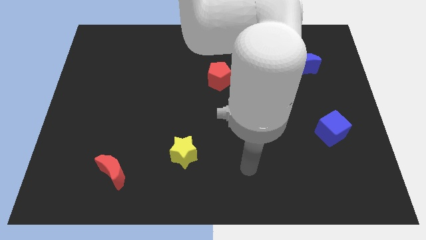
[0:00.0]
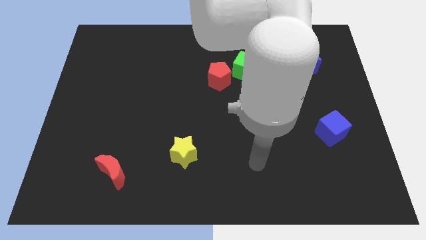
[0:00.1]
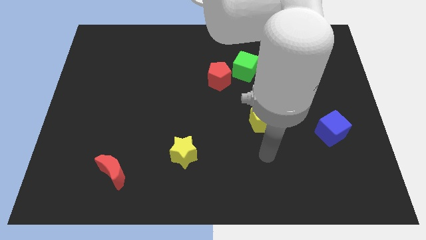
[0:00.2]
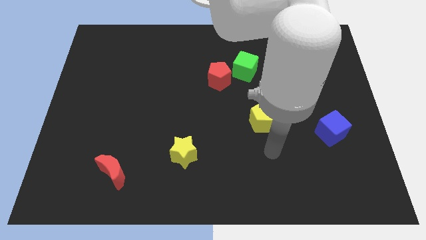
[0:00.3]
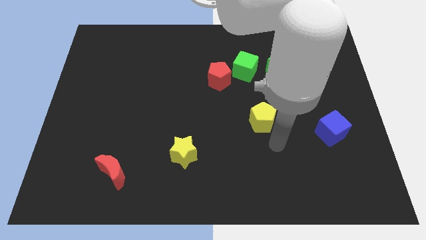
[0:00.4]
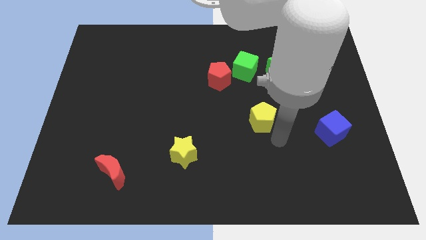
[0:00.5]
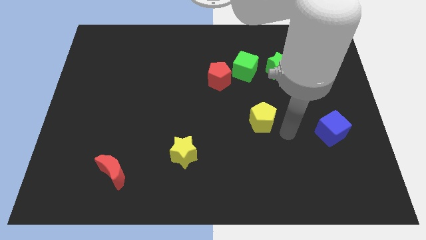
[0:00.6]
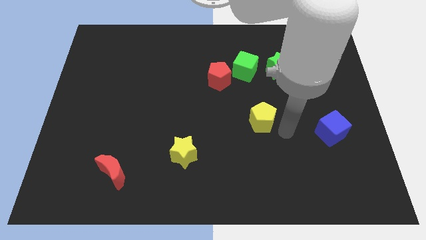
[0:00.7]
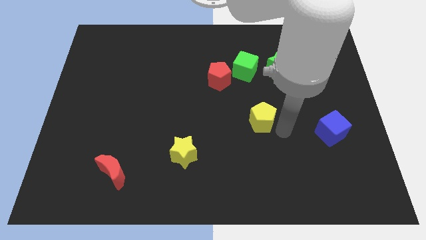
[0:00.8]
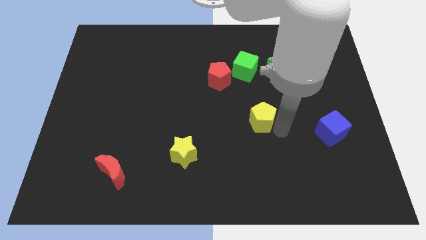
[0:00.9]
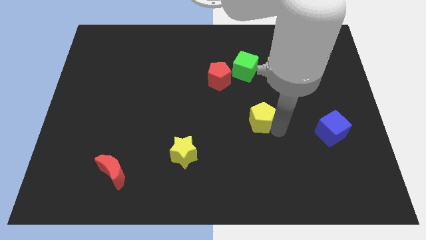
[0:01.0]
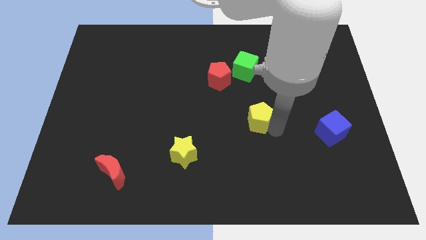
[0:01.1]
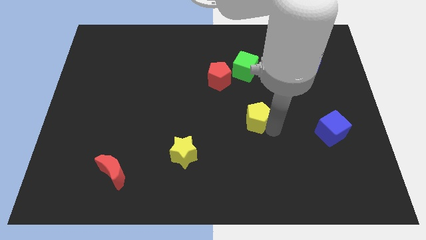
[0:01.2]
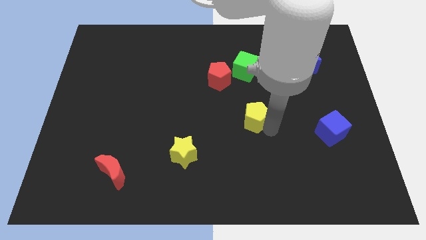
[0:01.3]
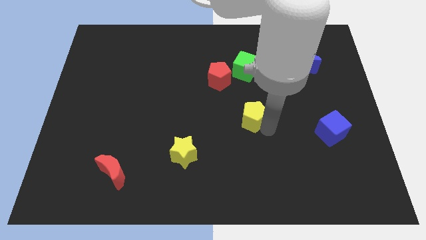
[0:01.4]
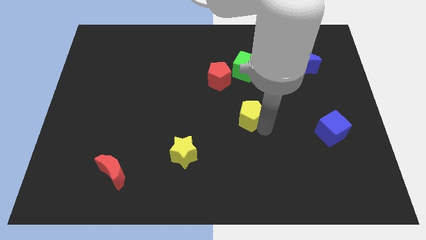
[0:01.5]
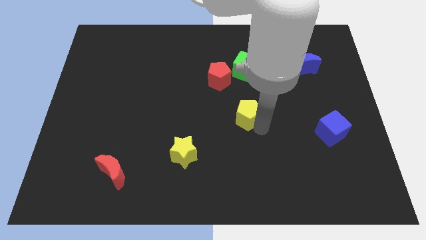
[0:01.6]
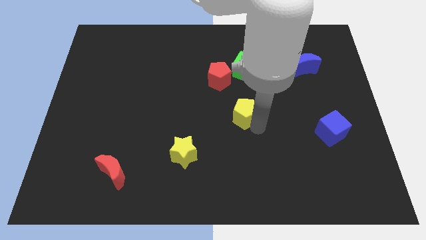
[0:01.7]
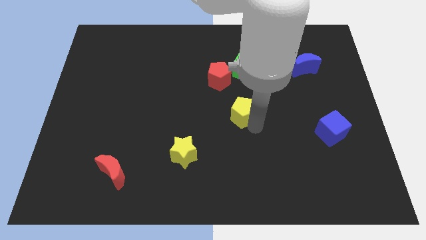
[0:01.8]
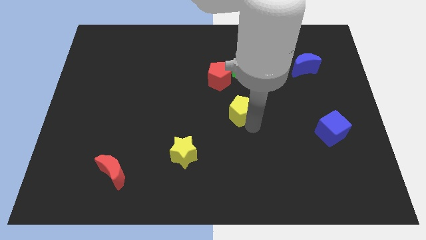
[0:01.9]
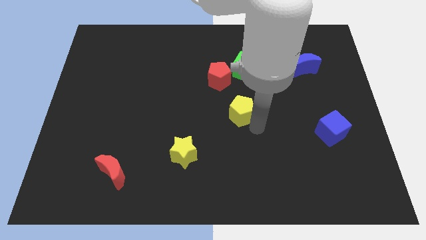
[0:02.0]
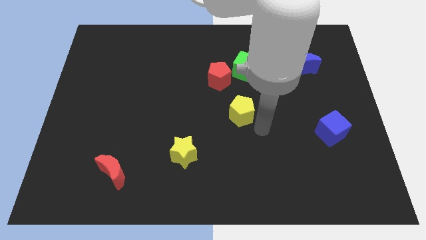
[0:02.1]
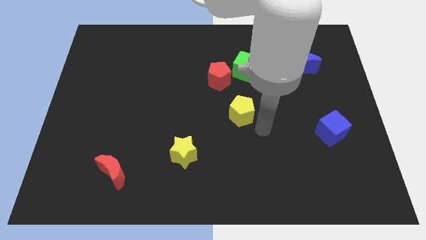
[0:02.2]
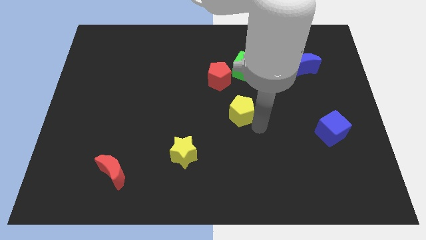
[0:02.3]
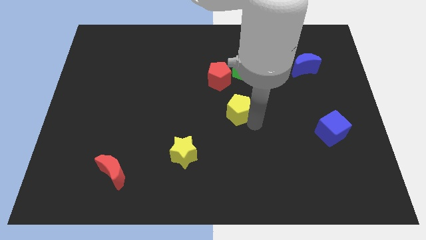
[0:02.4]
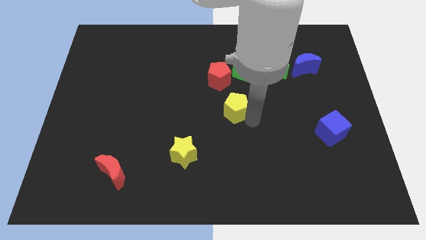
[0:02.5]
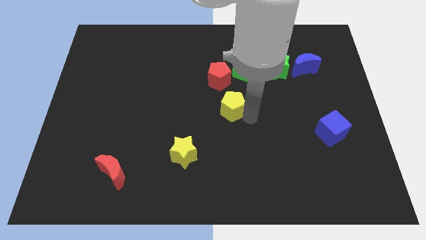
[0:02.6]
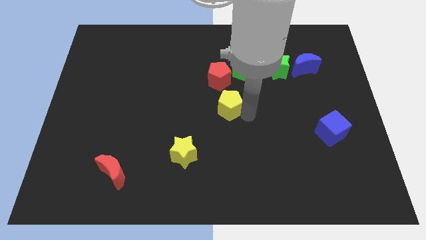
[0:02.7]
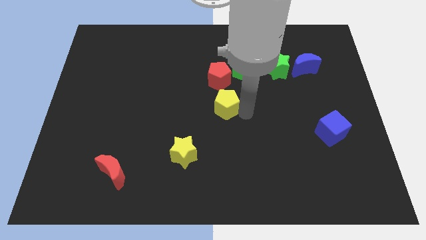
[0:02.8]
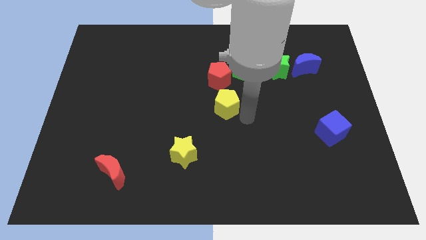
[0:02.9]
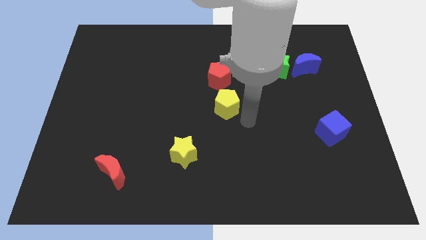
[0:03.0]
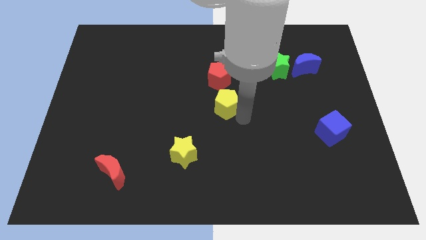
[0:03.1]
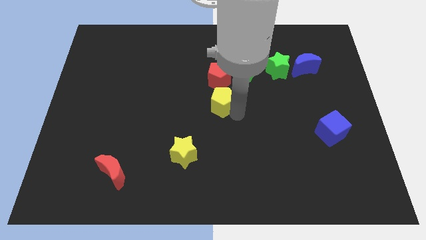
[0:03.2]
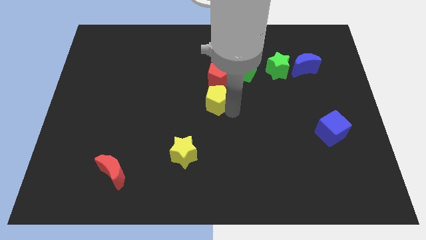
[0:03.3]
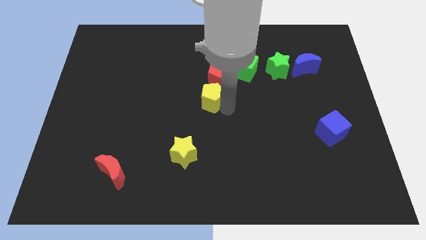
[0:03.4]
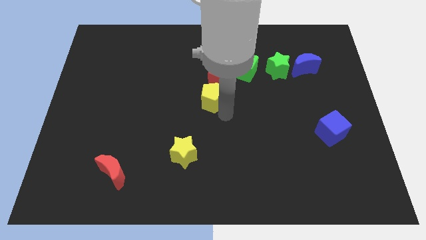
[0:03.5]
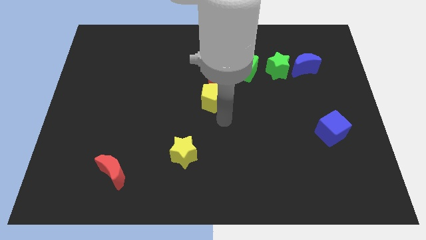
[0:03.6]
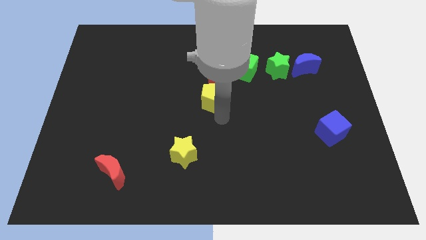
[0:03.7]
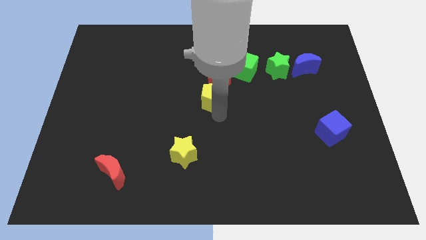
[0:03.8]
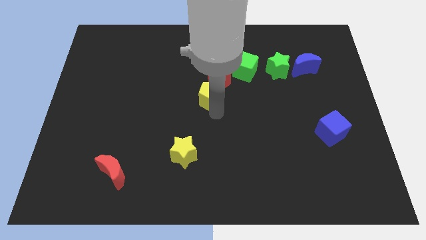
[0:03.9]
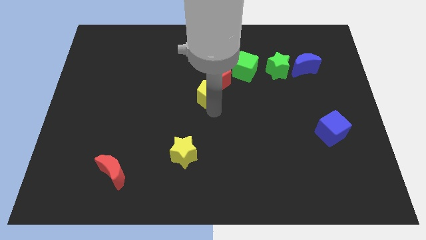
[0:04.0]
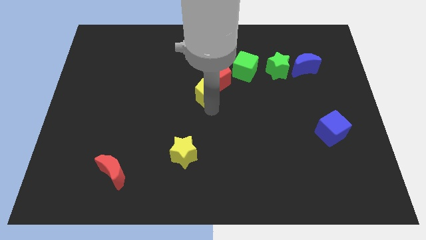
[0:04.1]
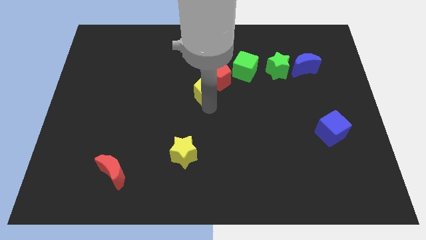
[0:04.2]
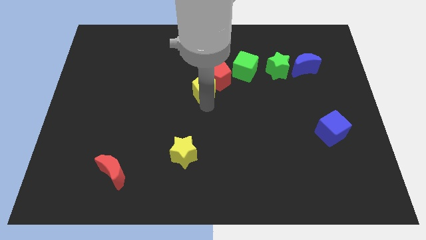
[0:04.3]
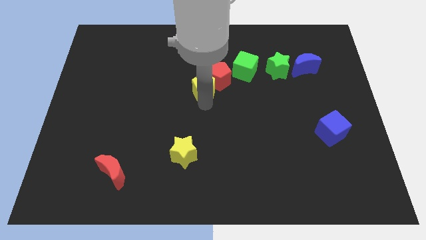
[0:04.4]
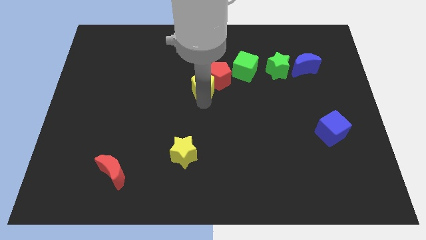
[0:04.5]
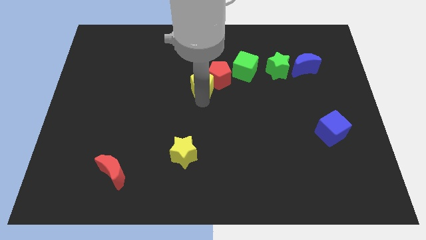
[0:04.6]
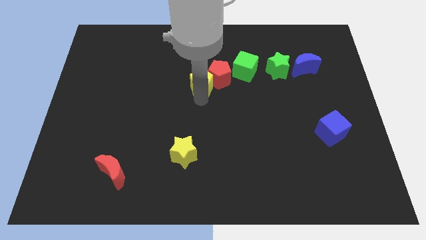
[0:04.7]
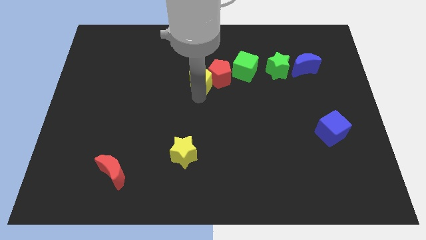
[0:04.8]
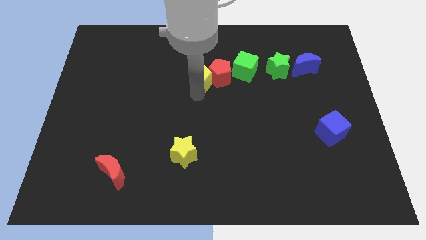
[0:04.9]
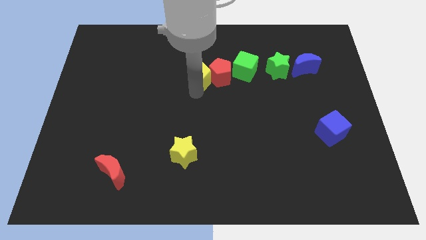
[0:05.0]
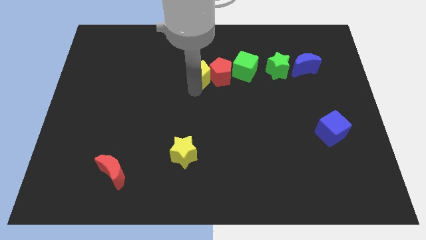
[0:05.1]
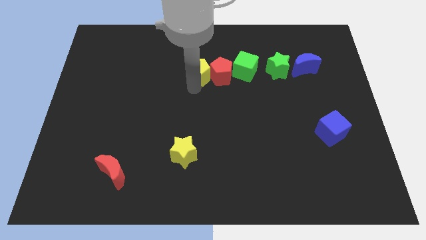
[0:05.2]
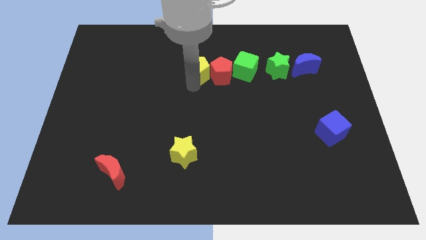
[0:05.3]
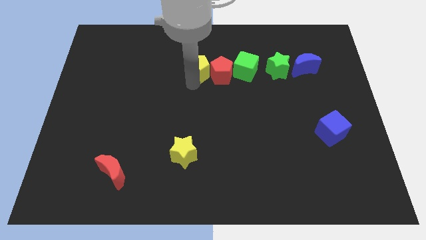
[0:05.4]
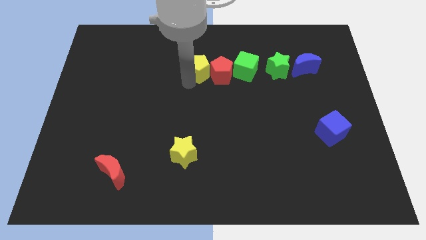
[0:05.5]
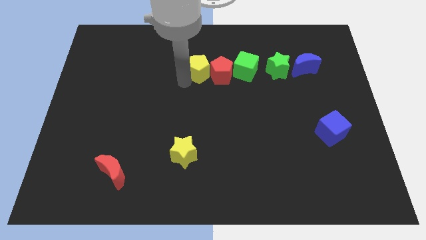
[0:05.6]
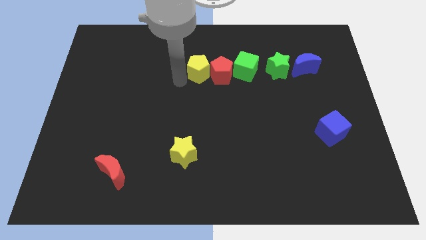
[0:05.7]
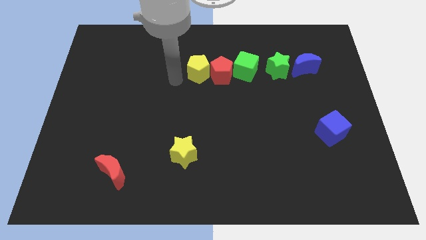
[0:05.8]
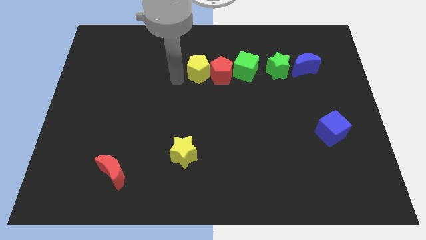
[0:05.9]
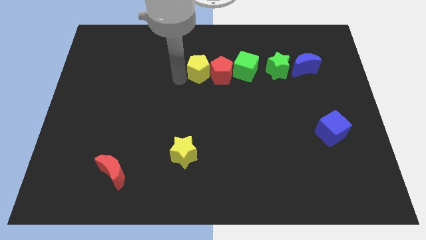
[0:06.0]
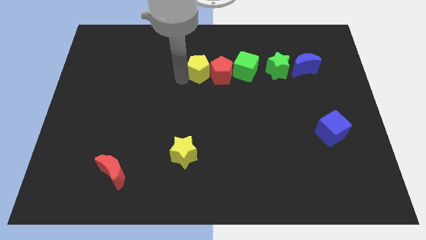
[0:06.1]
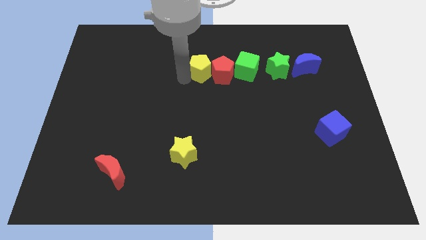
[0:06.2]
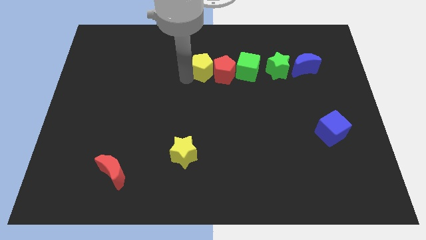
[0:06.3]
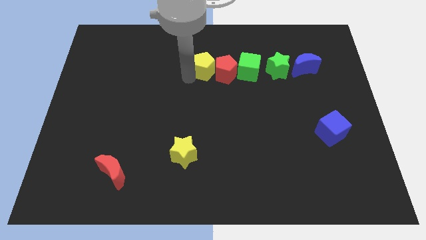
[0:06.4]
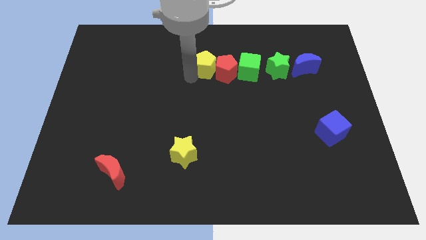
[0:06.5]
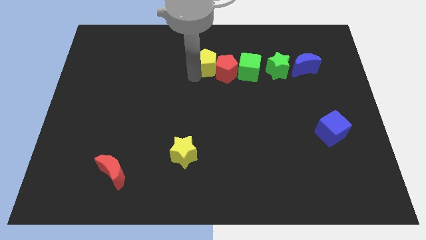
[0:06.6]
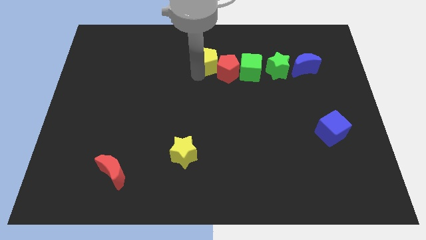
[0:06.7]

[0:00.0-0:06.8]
slide the yellow pentagon up slightly

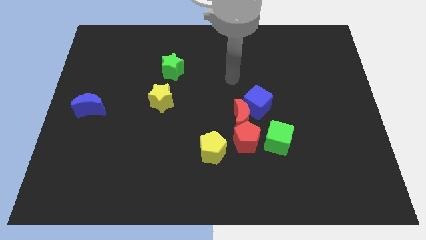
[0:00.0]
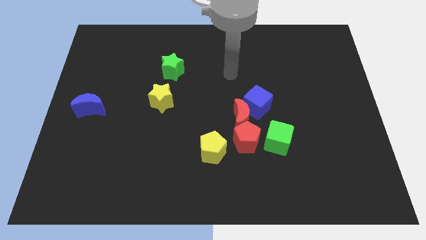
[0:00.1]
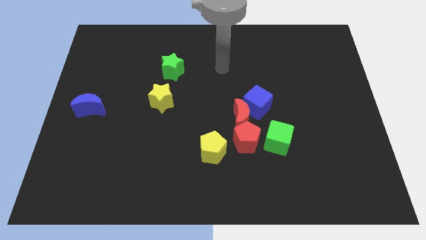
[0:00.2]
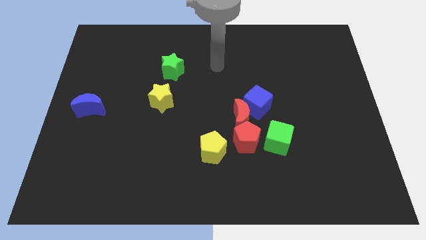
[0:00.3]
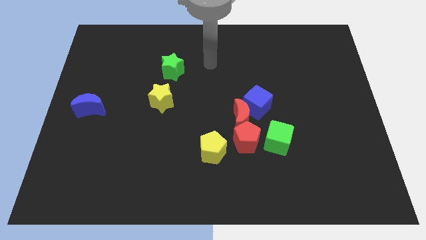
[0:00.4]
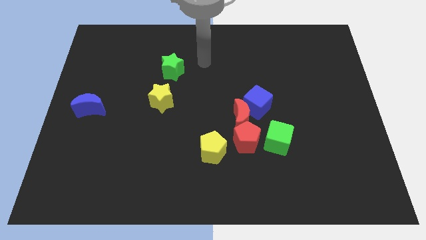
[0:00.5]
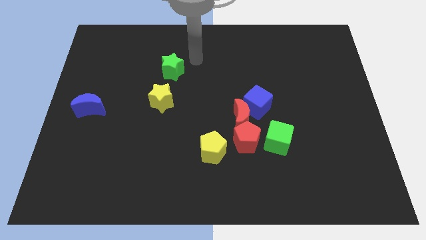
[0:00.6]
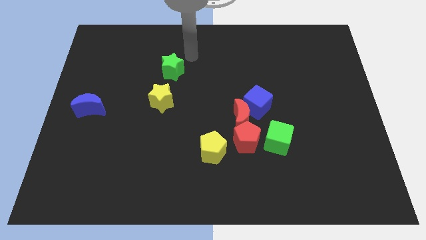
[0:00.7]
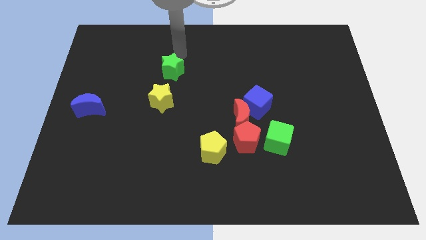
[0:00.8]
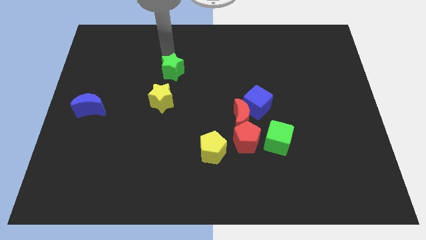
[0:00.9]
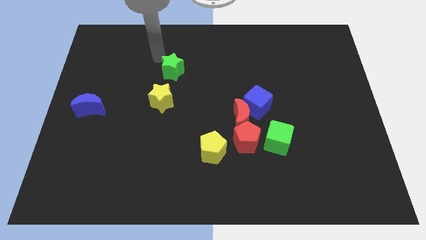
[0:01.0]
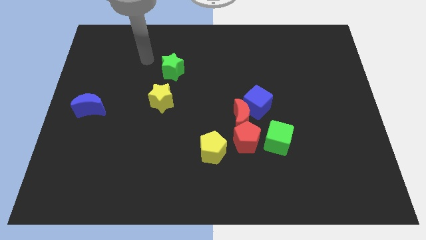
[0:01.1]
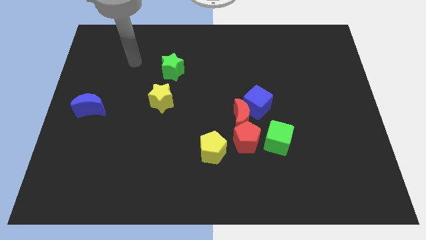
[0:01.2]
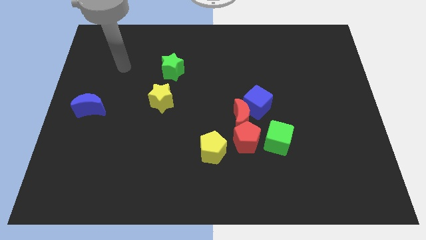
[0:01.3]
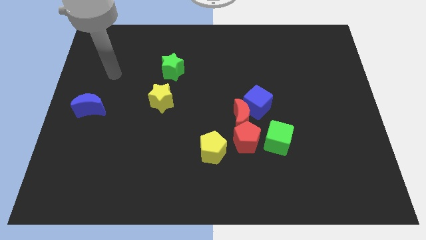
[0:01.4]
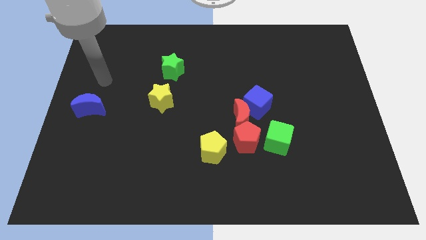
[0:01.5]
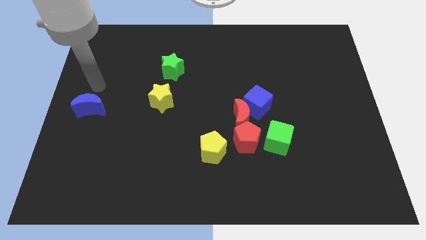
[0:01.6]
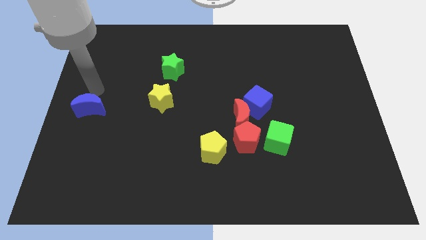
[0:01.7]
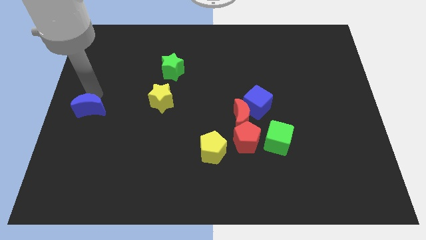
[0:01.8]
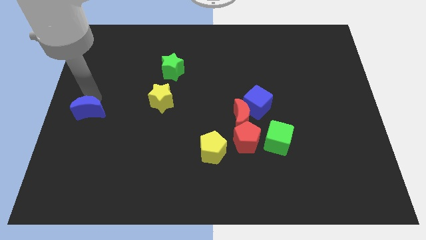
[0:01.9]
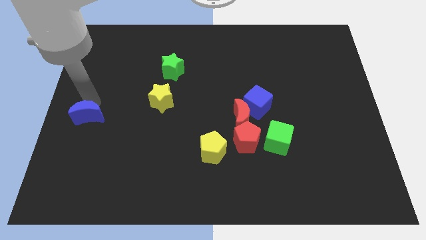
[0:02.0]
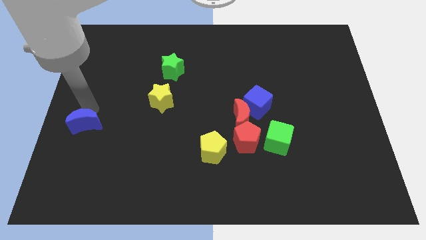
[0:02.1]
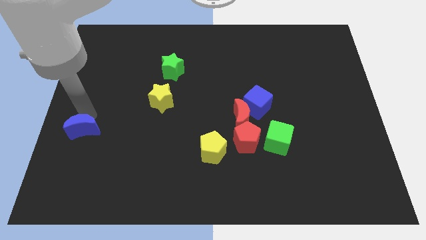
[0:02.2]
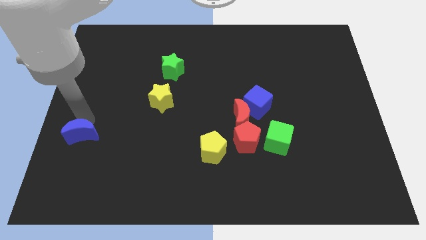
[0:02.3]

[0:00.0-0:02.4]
push the blue moon down somewhat
